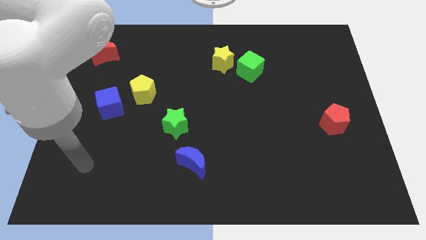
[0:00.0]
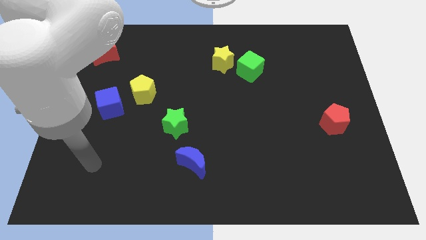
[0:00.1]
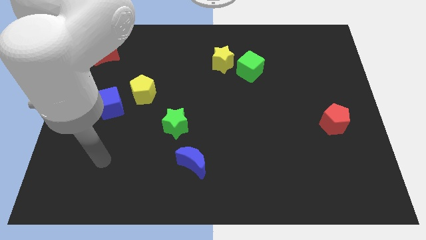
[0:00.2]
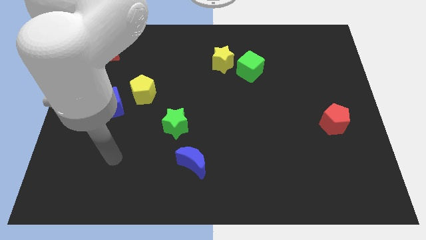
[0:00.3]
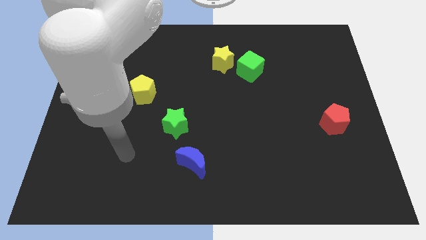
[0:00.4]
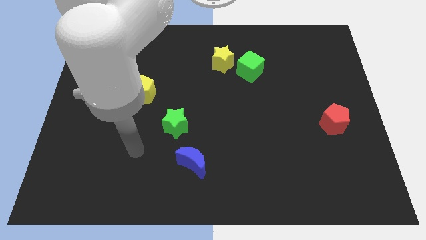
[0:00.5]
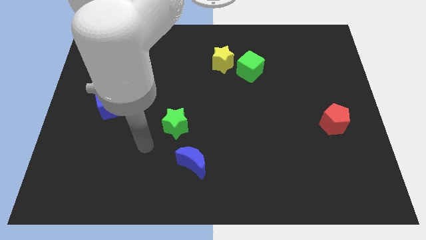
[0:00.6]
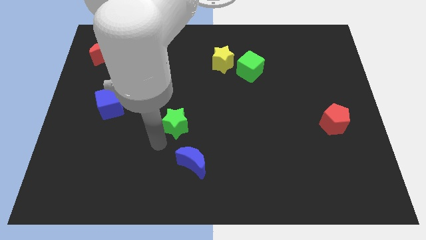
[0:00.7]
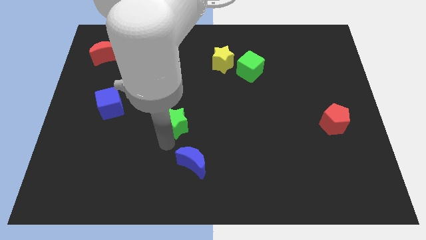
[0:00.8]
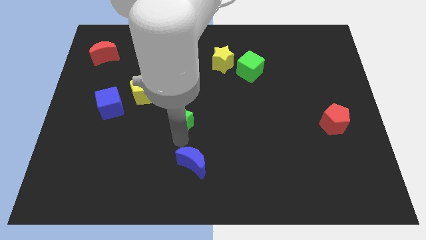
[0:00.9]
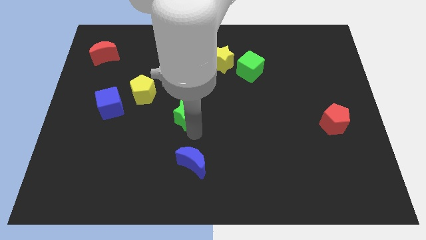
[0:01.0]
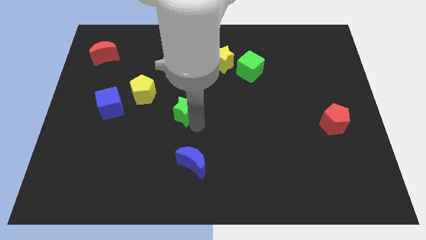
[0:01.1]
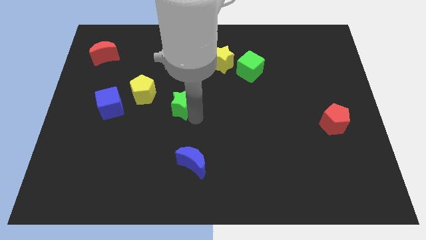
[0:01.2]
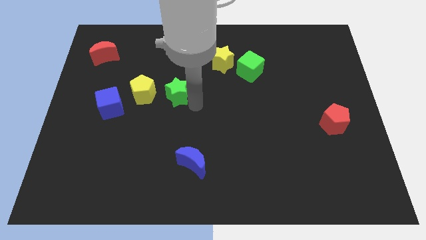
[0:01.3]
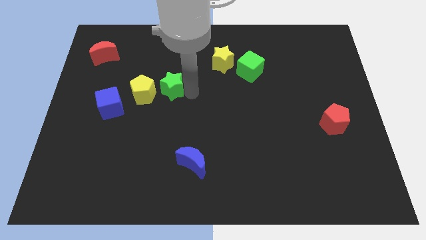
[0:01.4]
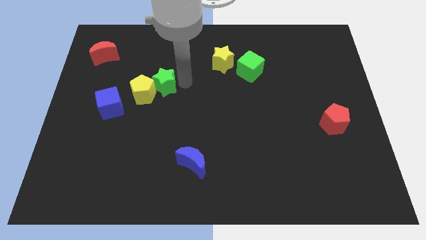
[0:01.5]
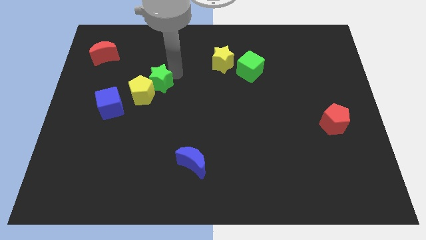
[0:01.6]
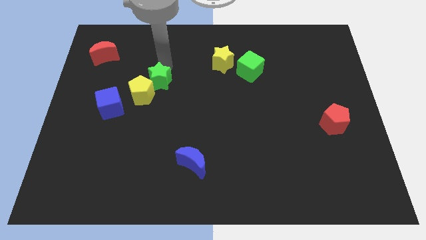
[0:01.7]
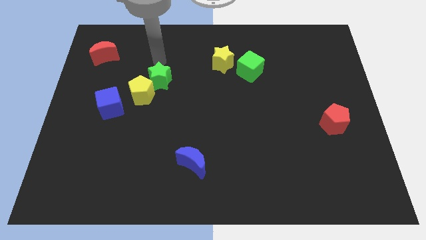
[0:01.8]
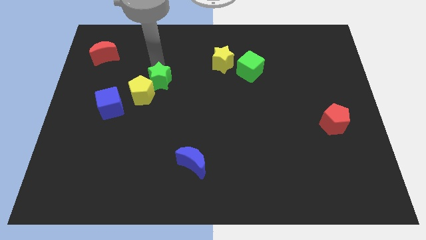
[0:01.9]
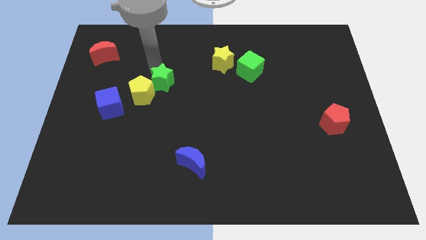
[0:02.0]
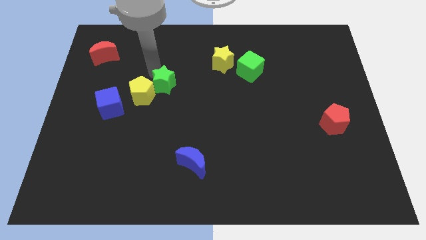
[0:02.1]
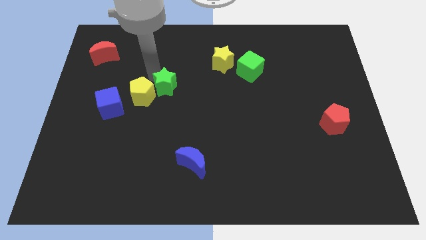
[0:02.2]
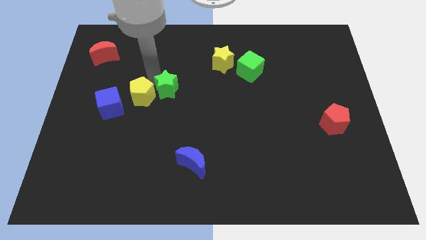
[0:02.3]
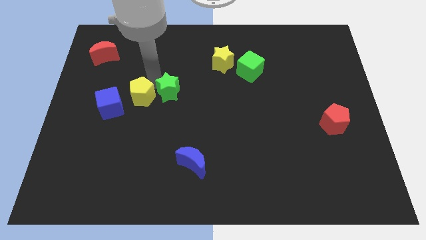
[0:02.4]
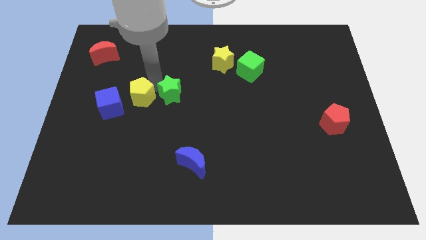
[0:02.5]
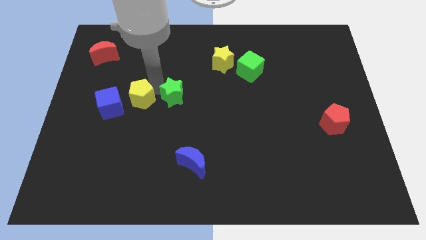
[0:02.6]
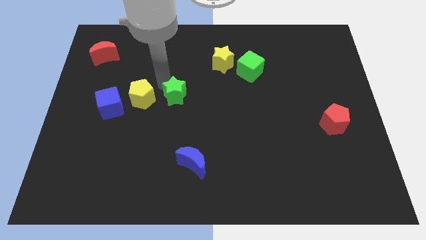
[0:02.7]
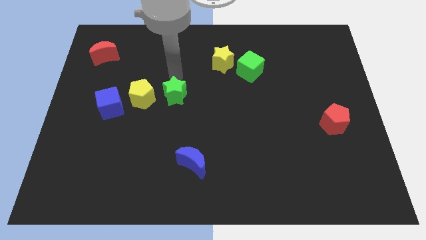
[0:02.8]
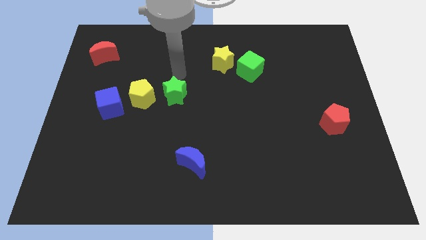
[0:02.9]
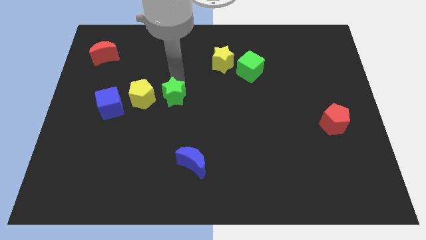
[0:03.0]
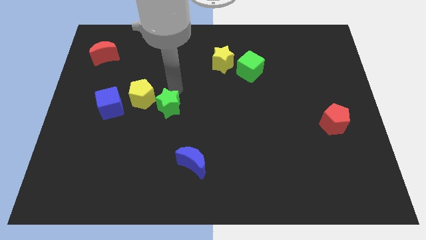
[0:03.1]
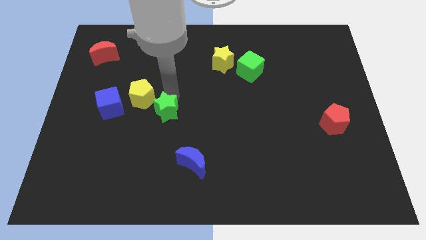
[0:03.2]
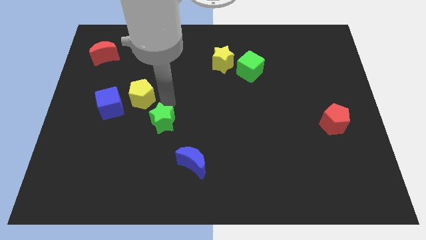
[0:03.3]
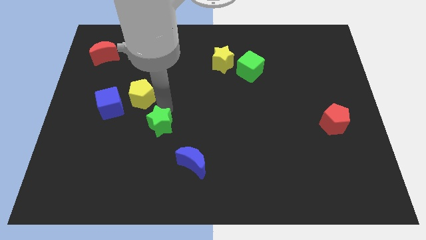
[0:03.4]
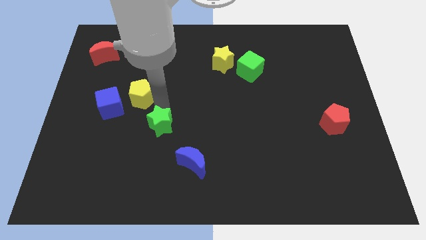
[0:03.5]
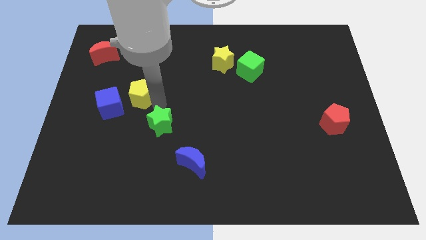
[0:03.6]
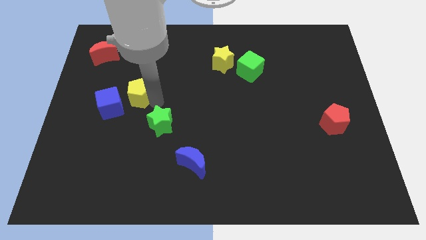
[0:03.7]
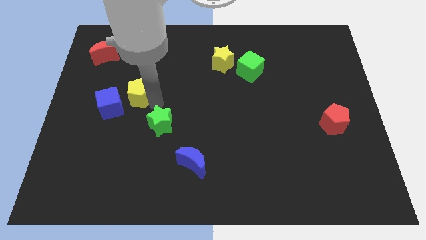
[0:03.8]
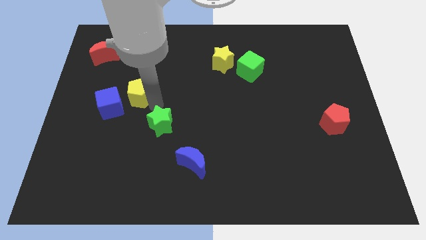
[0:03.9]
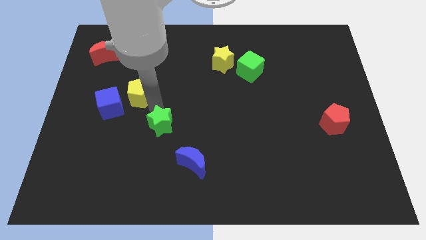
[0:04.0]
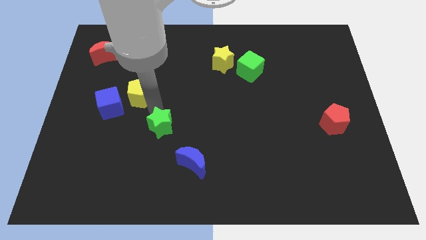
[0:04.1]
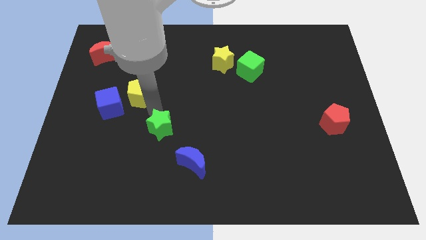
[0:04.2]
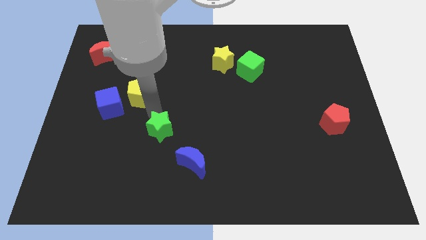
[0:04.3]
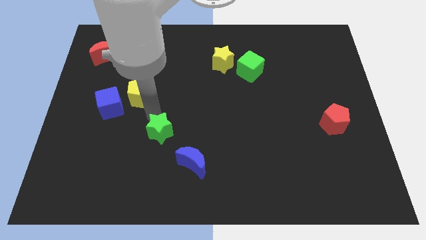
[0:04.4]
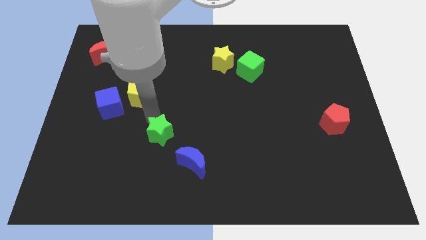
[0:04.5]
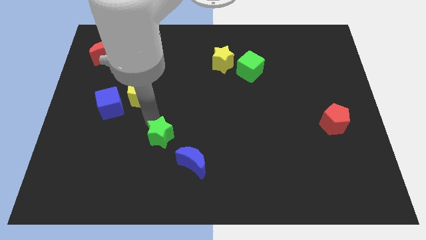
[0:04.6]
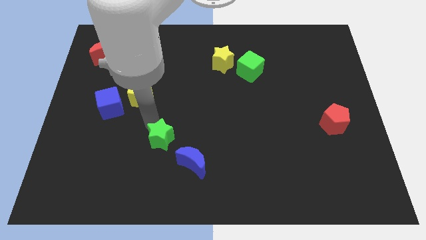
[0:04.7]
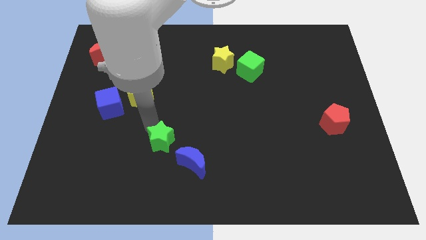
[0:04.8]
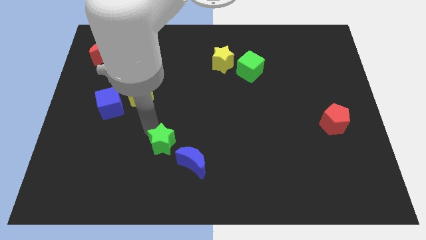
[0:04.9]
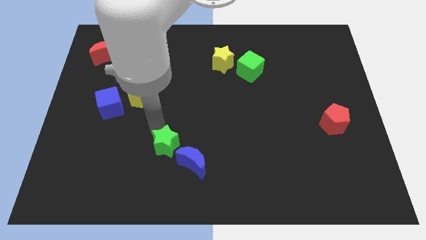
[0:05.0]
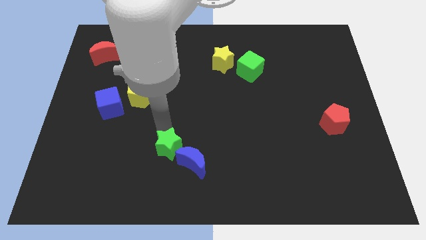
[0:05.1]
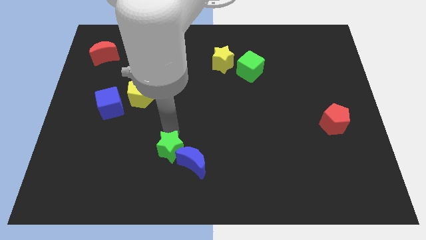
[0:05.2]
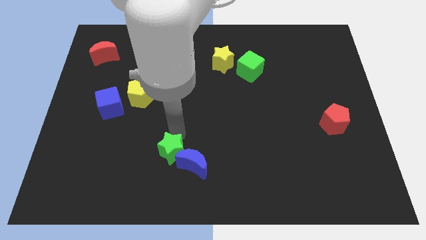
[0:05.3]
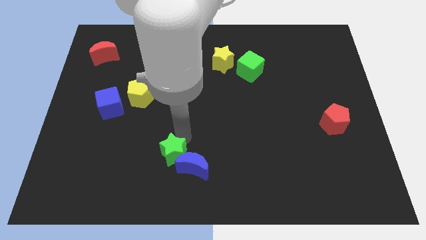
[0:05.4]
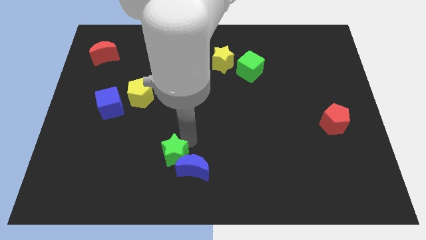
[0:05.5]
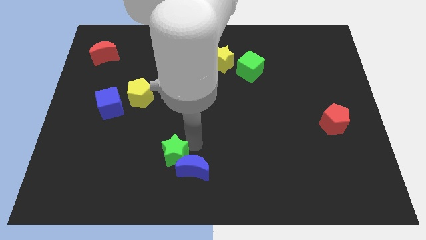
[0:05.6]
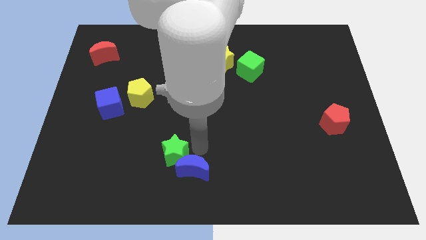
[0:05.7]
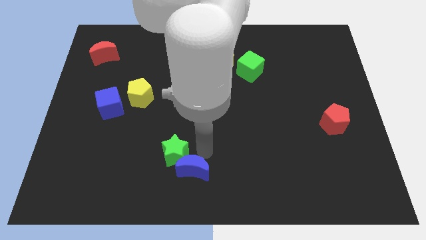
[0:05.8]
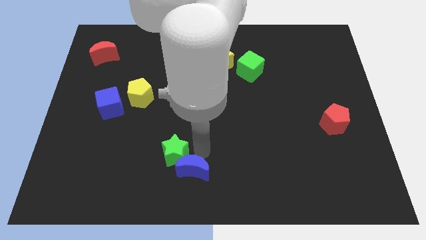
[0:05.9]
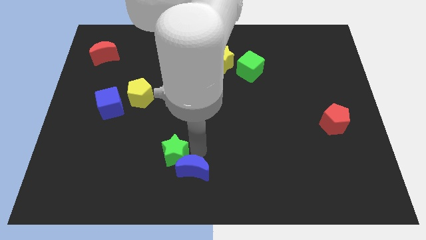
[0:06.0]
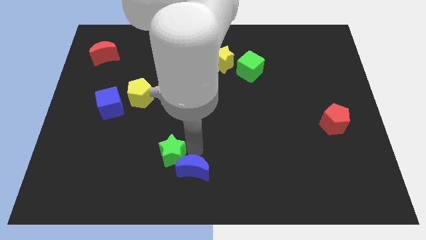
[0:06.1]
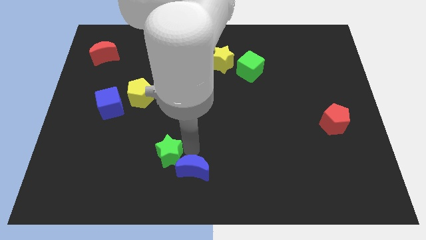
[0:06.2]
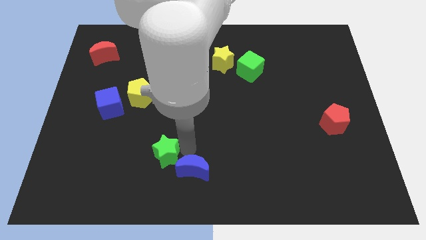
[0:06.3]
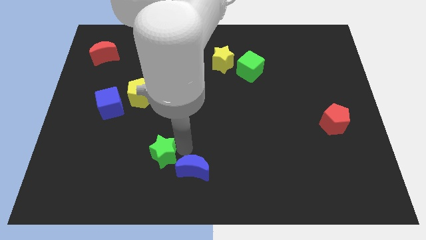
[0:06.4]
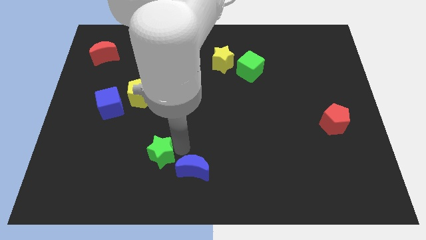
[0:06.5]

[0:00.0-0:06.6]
move the green star a little bit down and then to the left

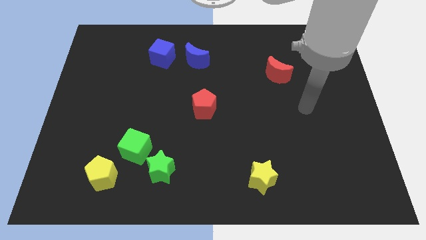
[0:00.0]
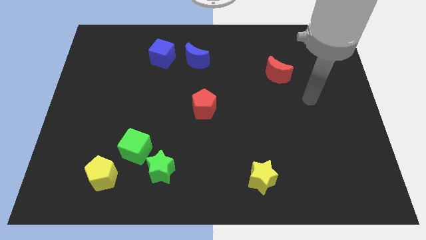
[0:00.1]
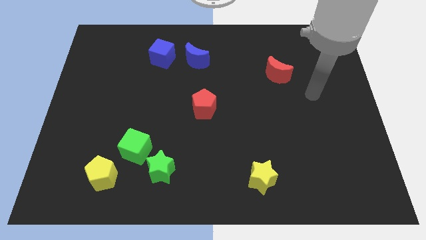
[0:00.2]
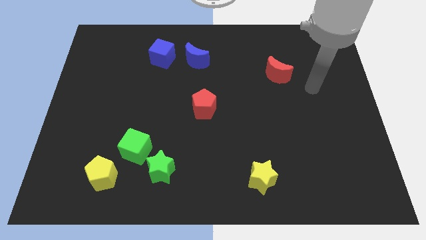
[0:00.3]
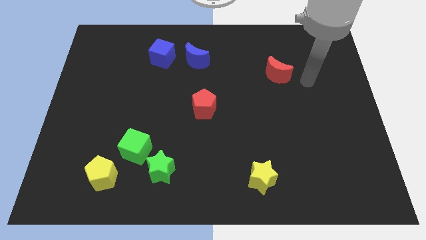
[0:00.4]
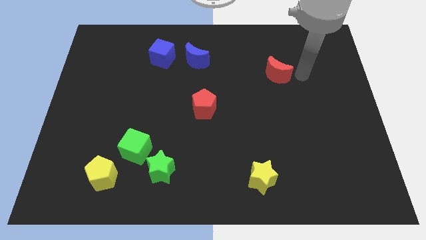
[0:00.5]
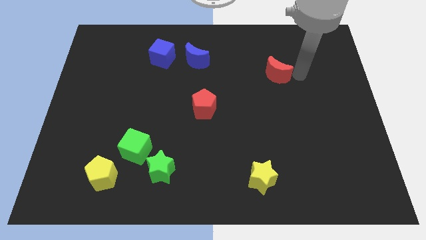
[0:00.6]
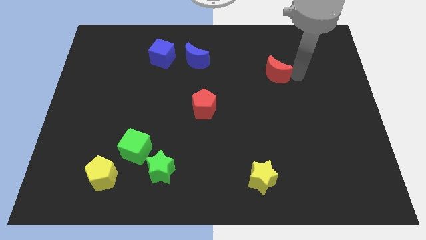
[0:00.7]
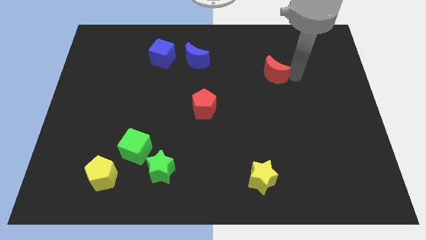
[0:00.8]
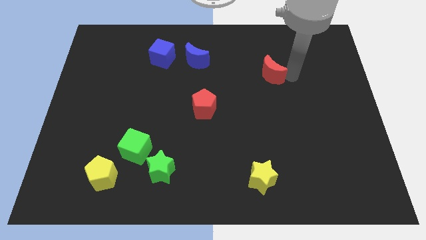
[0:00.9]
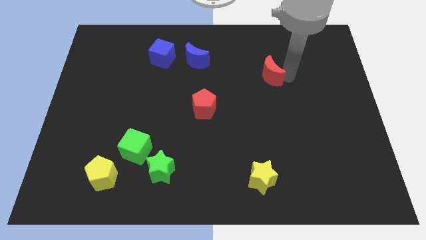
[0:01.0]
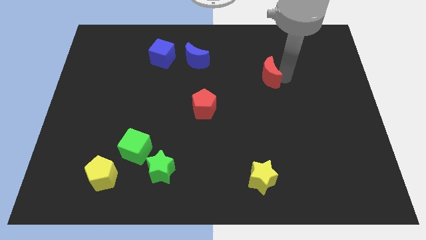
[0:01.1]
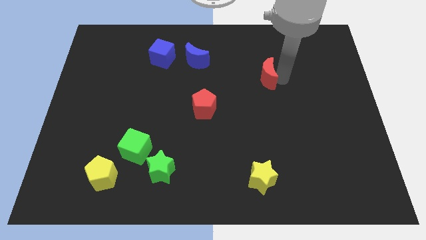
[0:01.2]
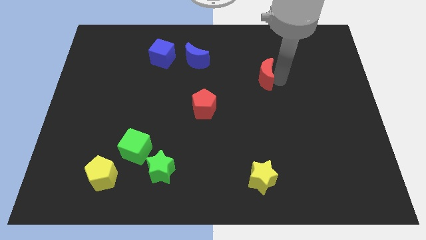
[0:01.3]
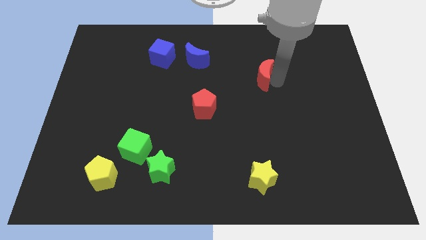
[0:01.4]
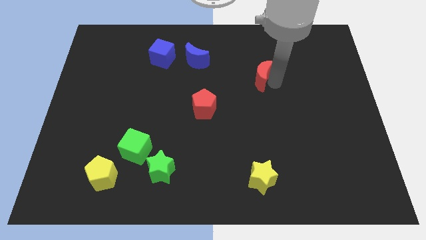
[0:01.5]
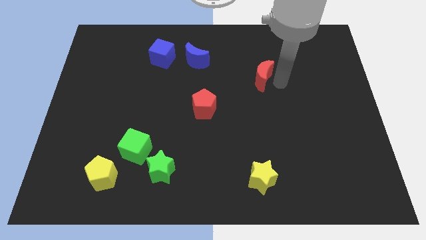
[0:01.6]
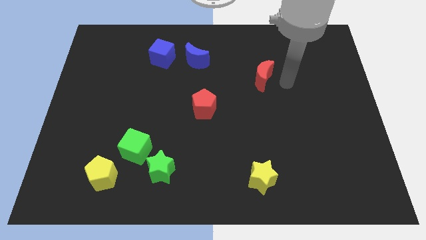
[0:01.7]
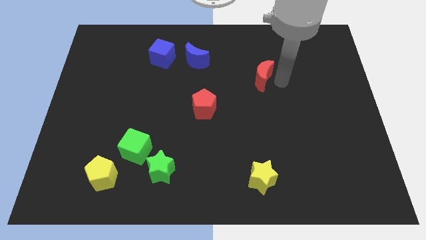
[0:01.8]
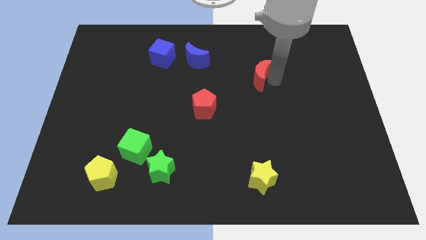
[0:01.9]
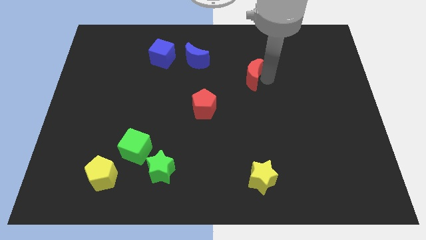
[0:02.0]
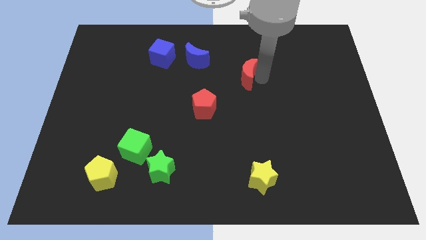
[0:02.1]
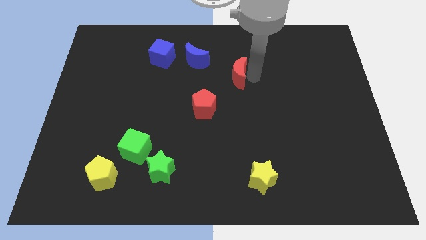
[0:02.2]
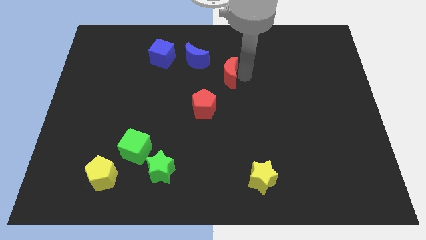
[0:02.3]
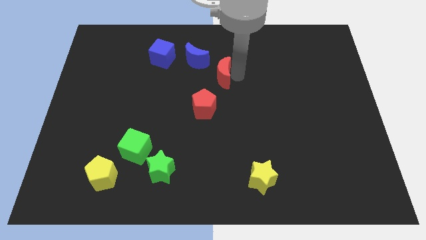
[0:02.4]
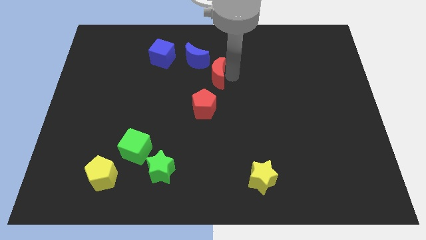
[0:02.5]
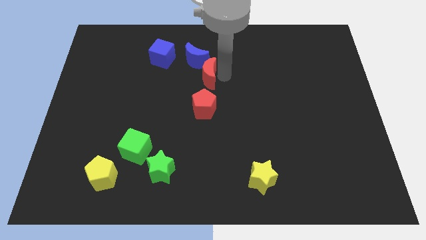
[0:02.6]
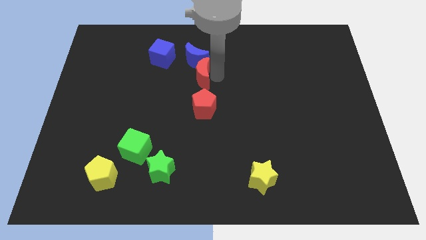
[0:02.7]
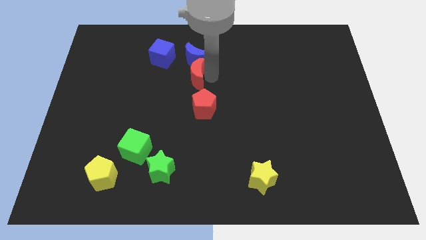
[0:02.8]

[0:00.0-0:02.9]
slide the red moon left
